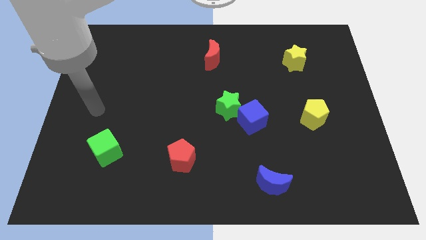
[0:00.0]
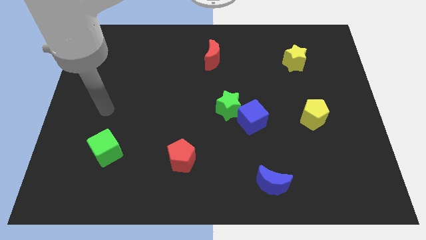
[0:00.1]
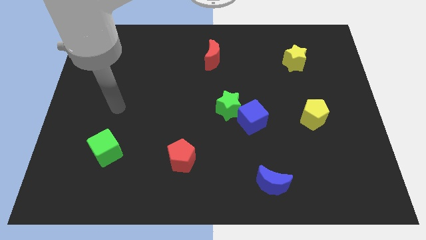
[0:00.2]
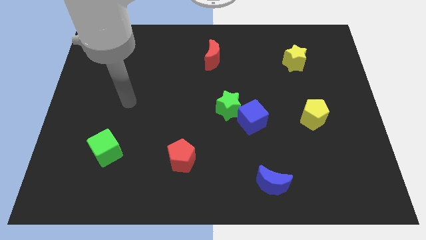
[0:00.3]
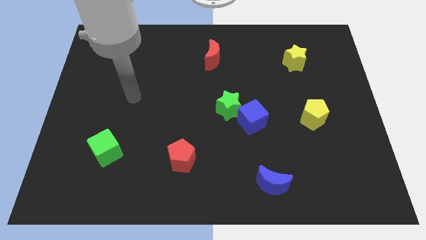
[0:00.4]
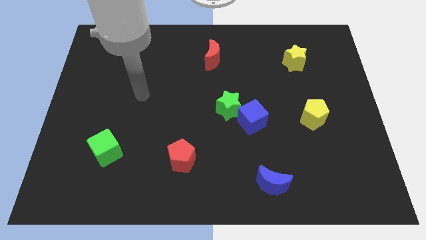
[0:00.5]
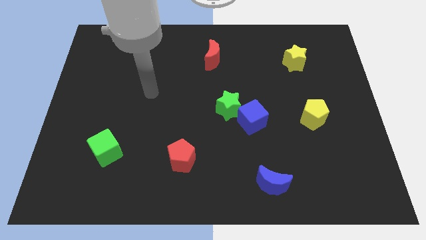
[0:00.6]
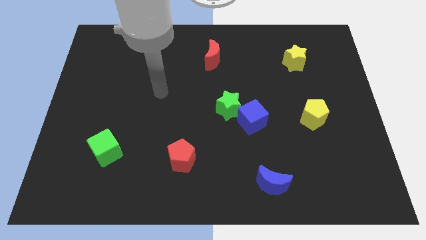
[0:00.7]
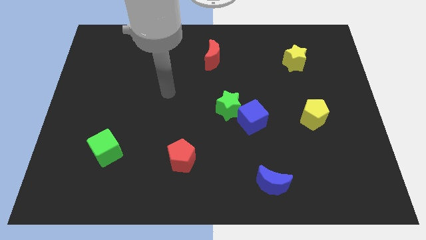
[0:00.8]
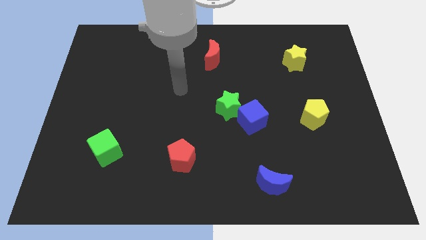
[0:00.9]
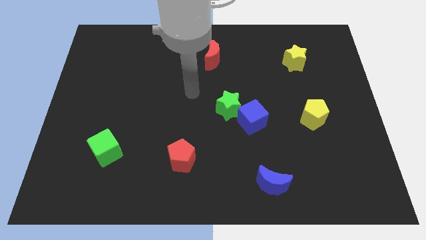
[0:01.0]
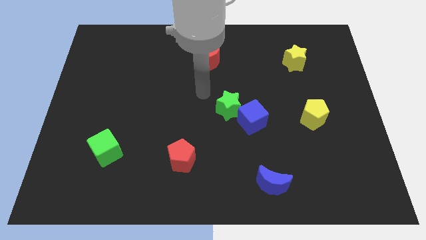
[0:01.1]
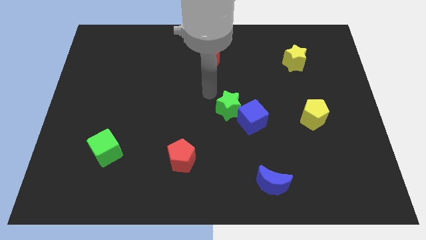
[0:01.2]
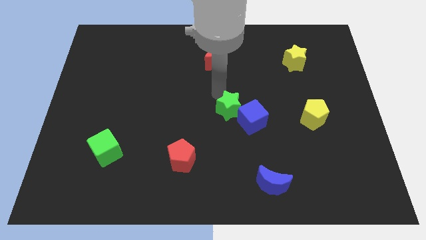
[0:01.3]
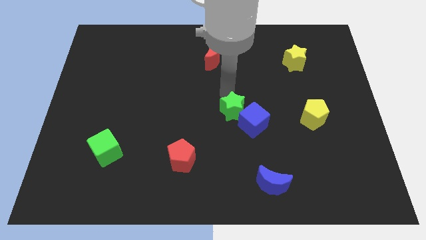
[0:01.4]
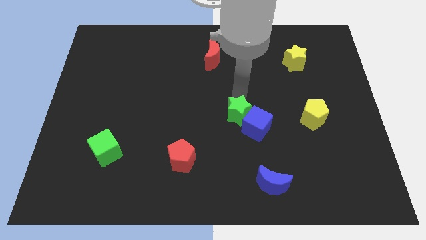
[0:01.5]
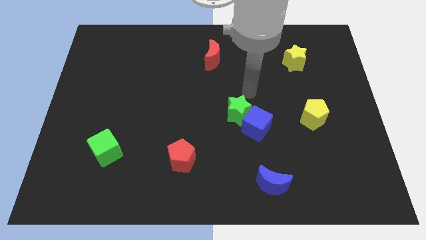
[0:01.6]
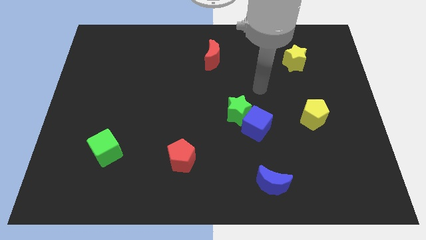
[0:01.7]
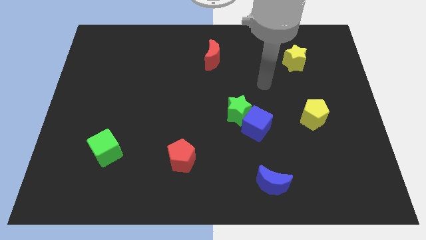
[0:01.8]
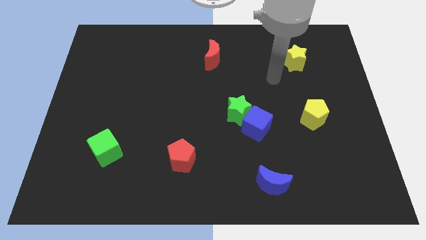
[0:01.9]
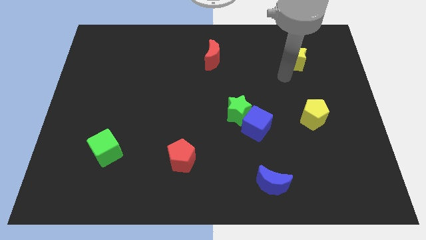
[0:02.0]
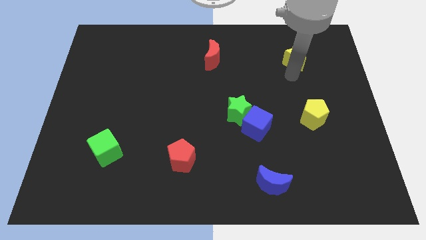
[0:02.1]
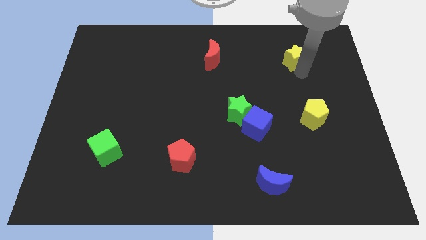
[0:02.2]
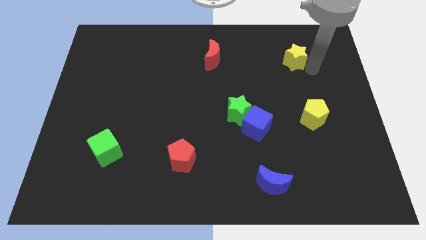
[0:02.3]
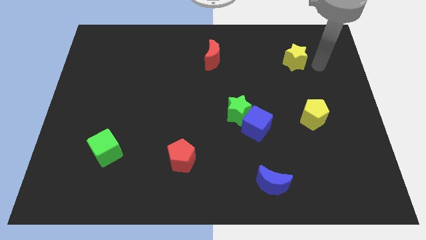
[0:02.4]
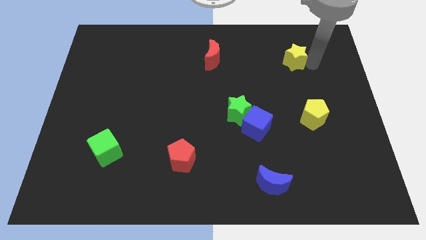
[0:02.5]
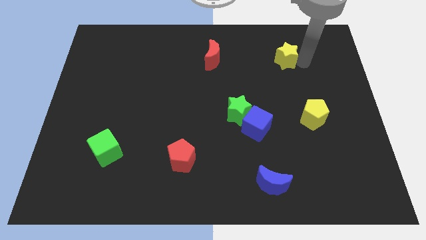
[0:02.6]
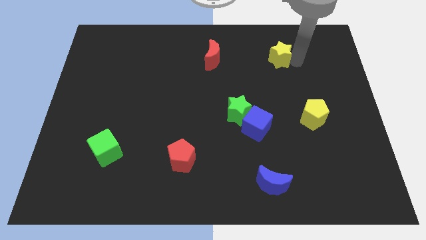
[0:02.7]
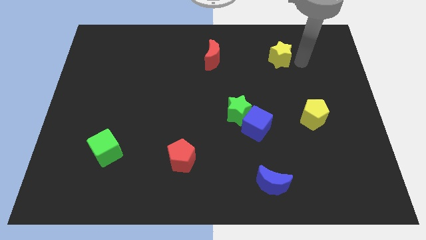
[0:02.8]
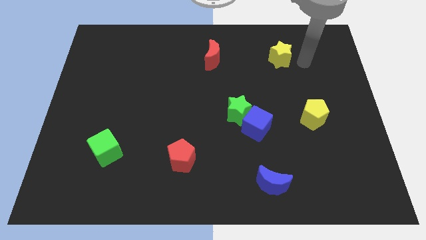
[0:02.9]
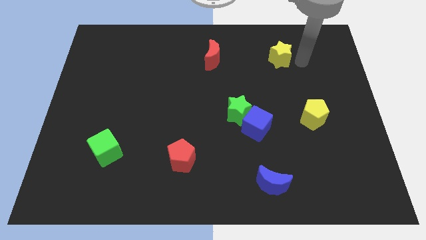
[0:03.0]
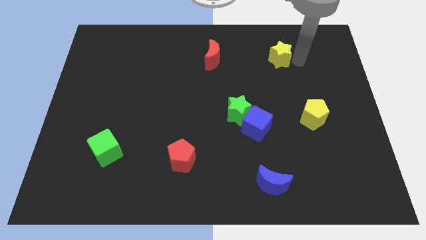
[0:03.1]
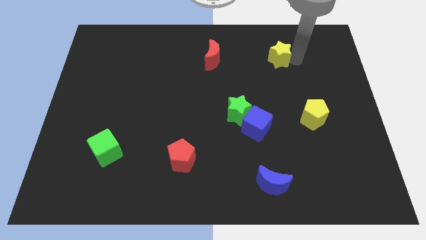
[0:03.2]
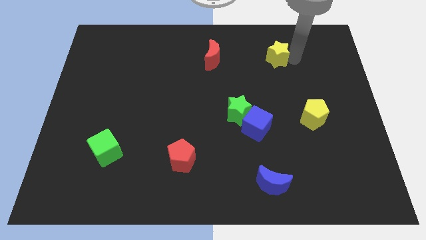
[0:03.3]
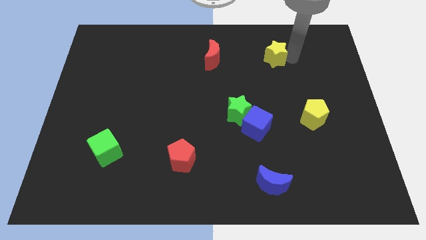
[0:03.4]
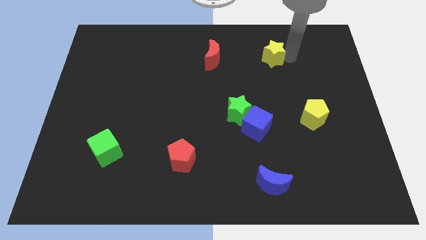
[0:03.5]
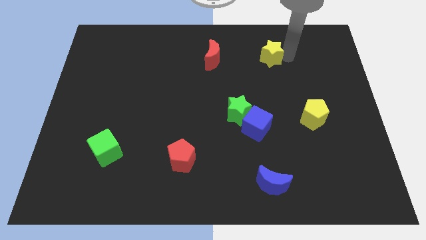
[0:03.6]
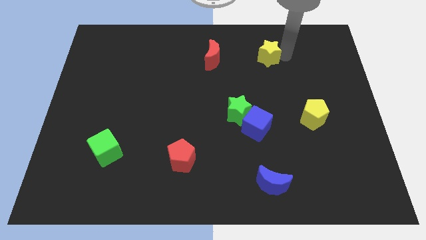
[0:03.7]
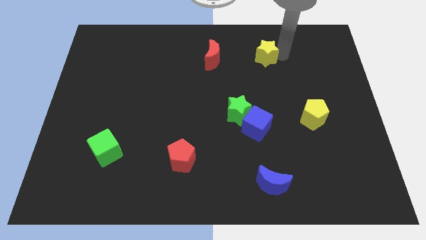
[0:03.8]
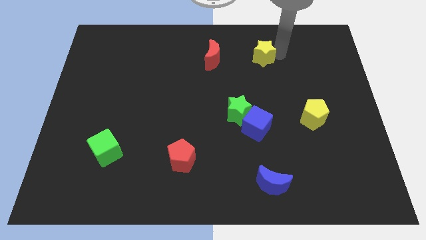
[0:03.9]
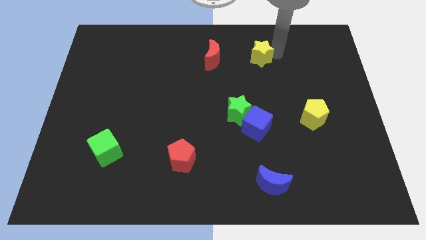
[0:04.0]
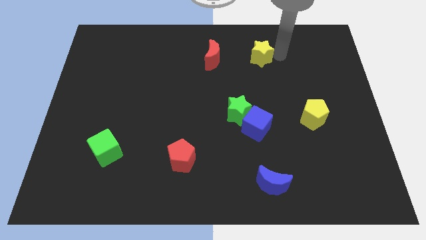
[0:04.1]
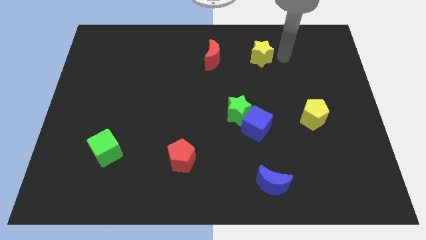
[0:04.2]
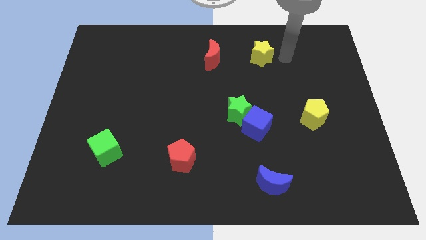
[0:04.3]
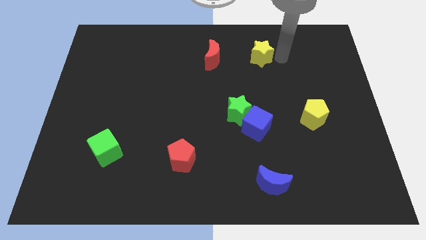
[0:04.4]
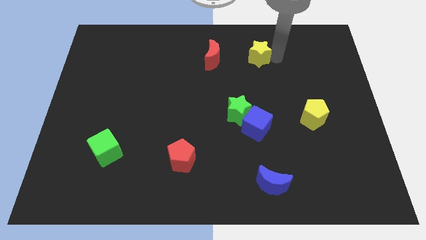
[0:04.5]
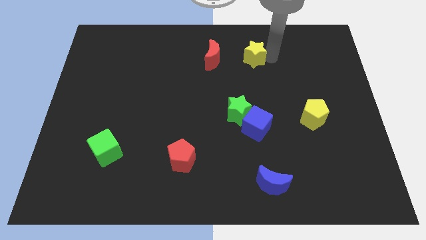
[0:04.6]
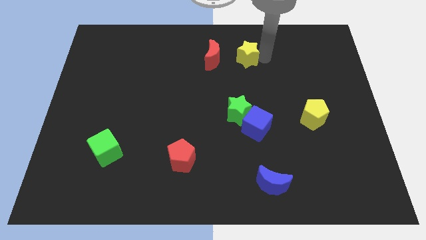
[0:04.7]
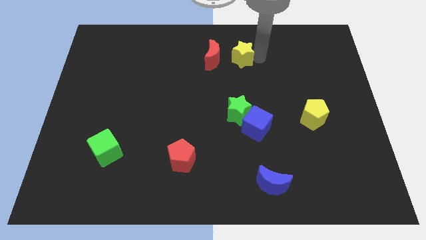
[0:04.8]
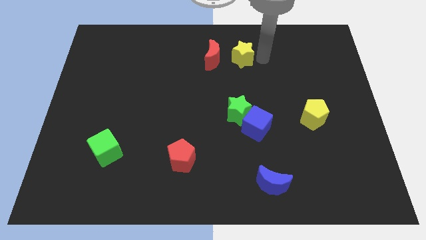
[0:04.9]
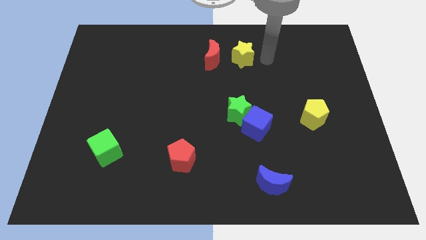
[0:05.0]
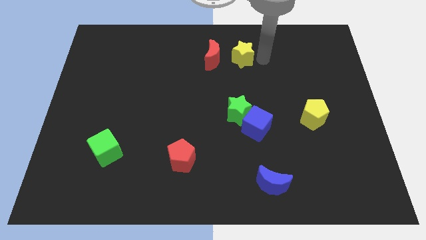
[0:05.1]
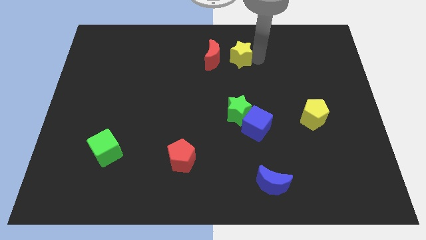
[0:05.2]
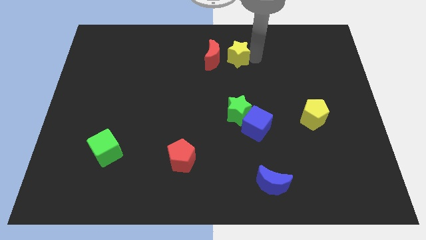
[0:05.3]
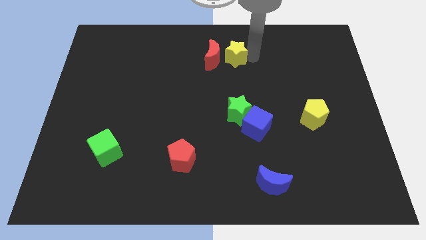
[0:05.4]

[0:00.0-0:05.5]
move the yellow star to the red moon

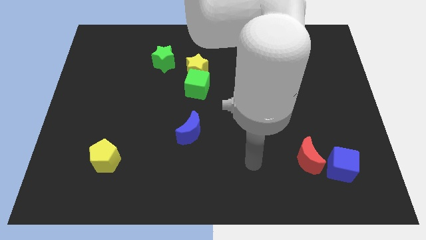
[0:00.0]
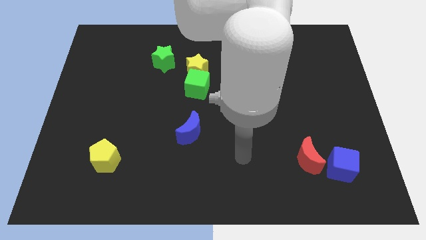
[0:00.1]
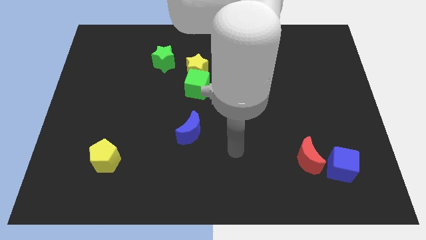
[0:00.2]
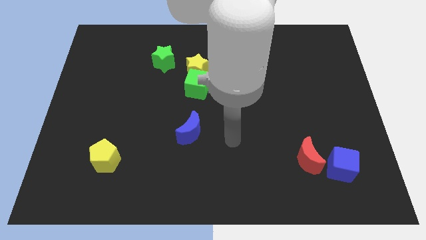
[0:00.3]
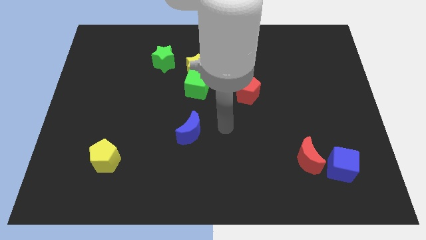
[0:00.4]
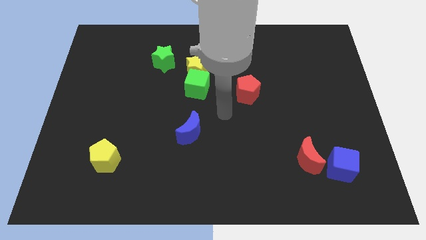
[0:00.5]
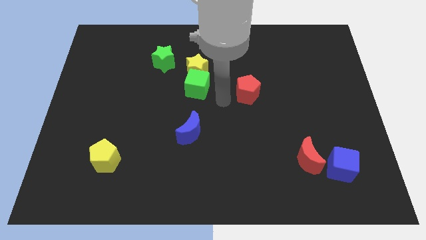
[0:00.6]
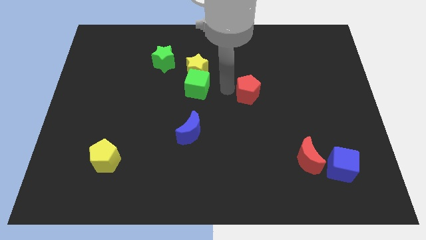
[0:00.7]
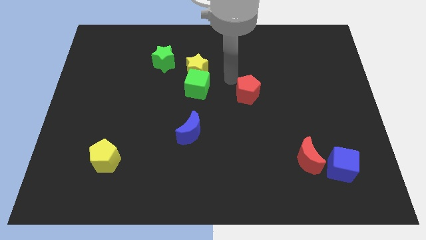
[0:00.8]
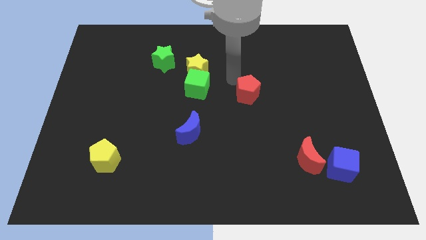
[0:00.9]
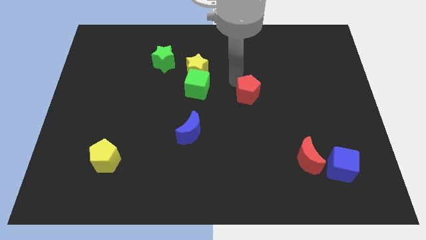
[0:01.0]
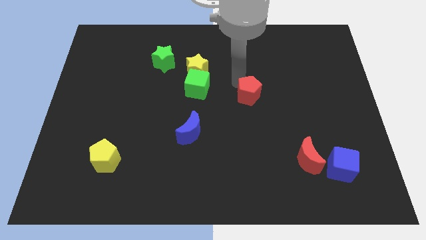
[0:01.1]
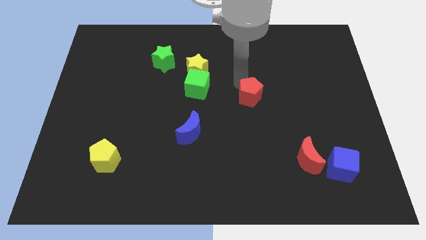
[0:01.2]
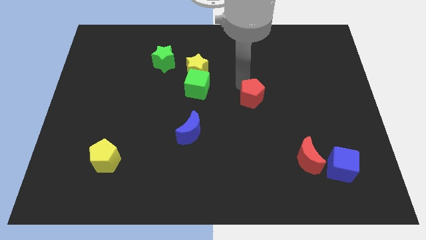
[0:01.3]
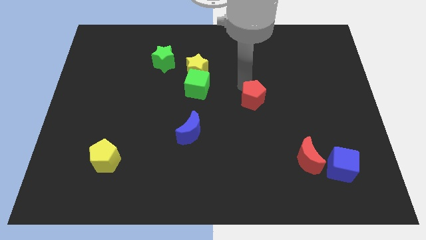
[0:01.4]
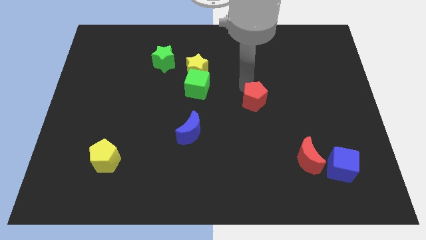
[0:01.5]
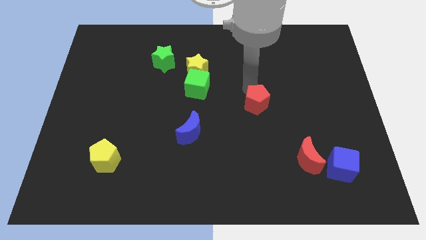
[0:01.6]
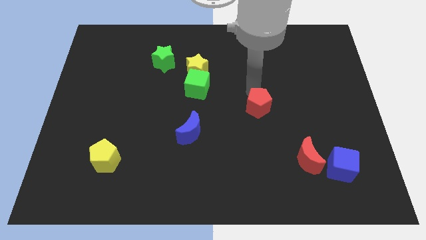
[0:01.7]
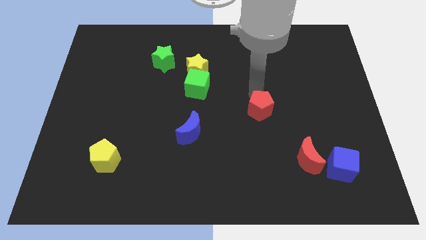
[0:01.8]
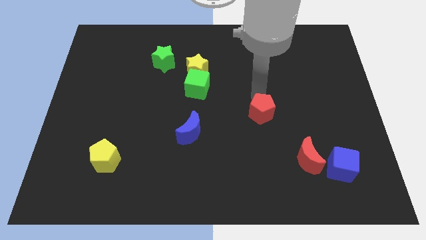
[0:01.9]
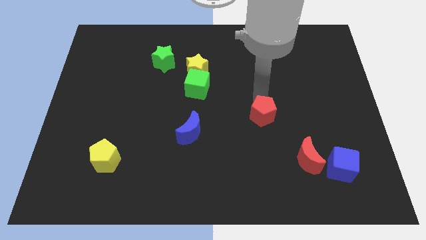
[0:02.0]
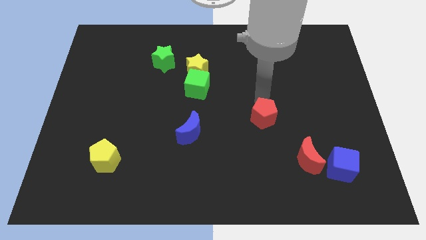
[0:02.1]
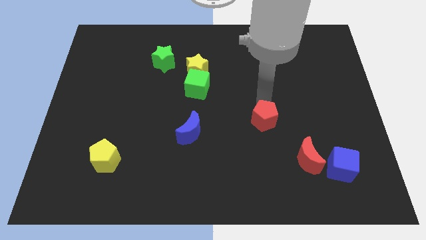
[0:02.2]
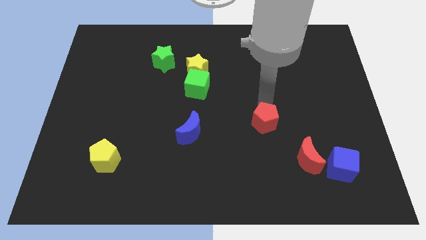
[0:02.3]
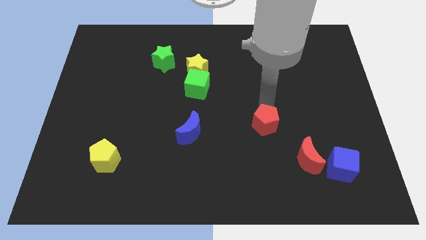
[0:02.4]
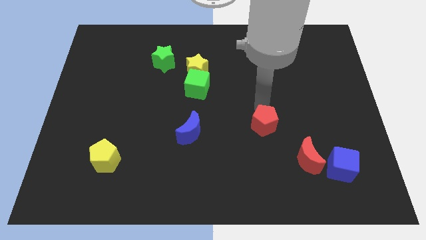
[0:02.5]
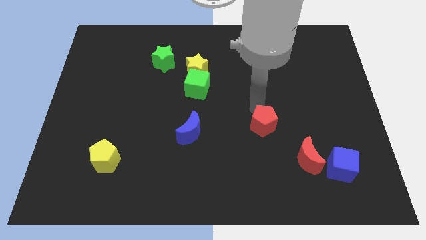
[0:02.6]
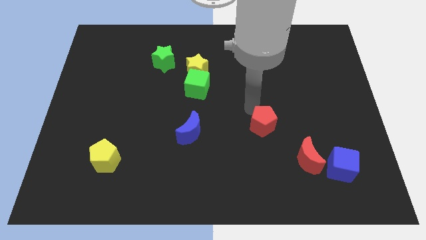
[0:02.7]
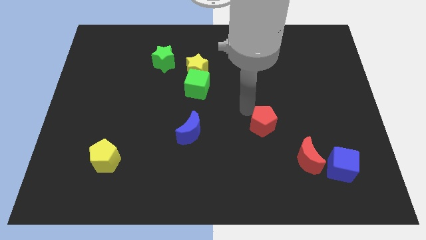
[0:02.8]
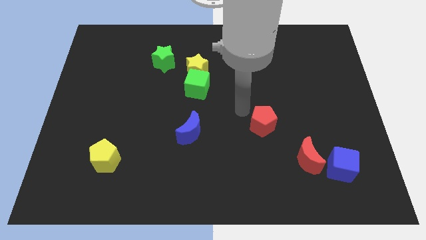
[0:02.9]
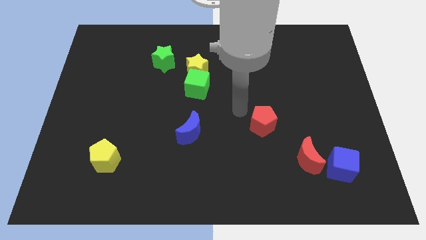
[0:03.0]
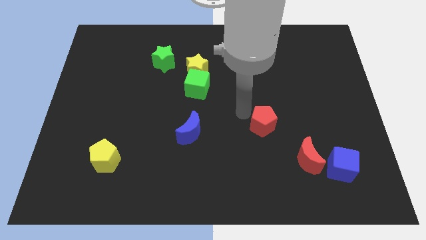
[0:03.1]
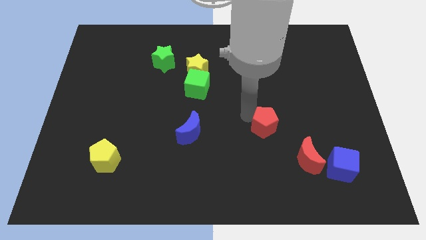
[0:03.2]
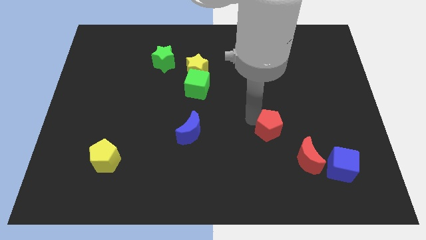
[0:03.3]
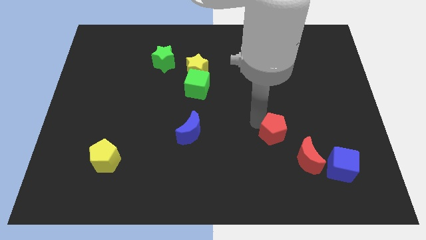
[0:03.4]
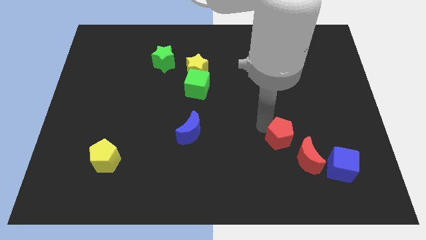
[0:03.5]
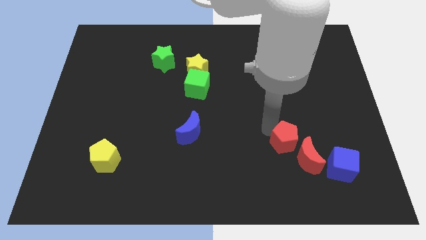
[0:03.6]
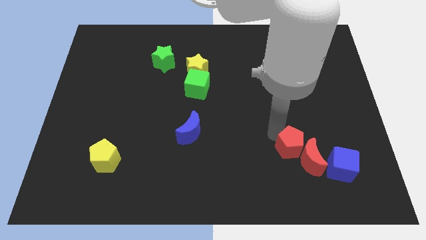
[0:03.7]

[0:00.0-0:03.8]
put the red pentagon towards the red moon
